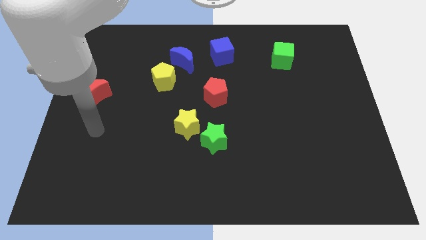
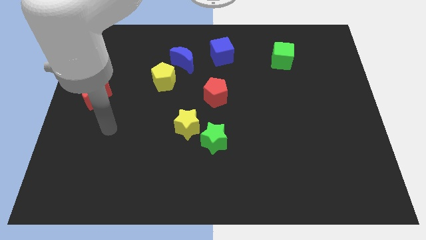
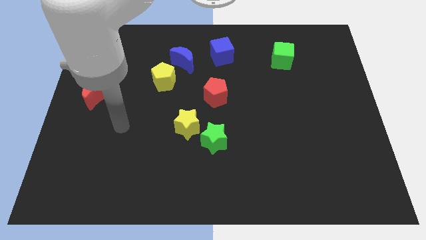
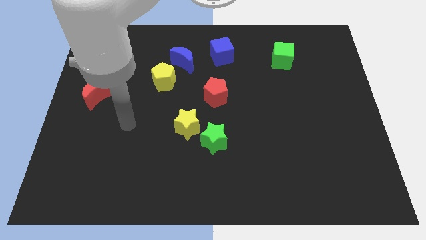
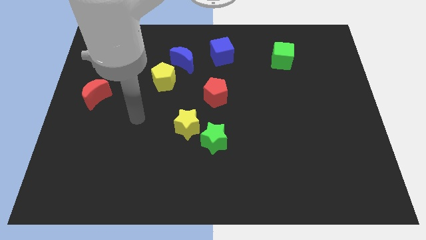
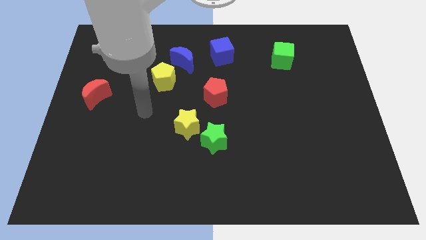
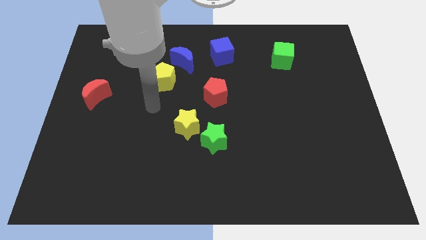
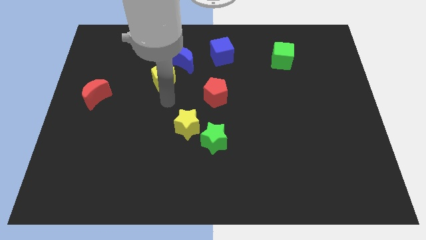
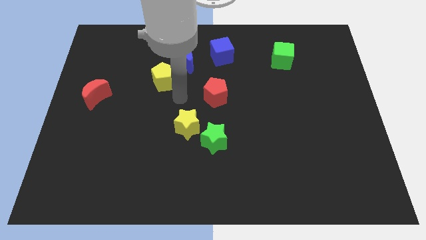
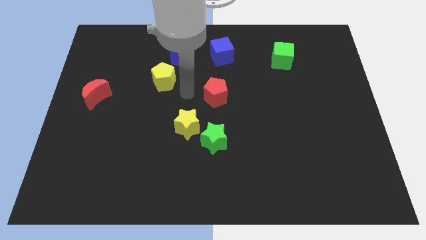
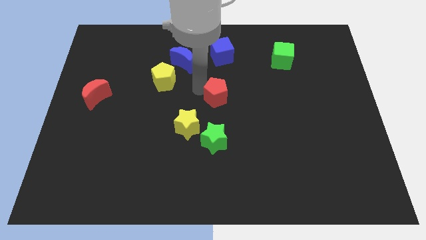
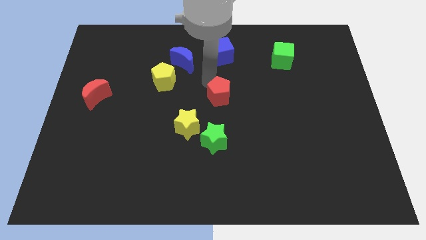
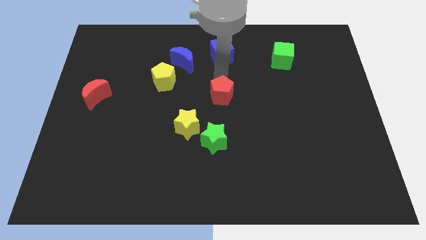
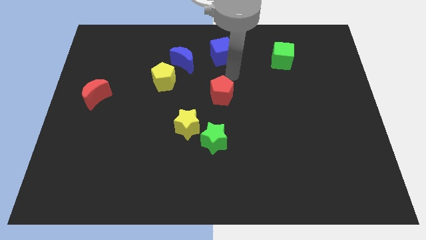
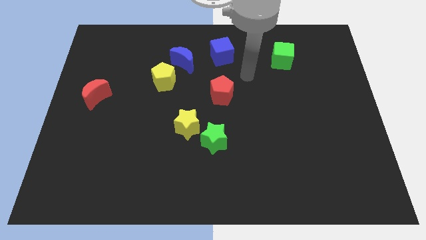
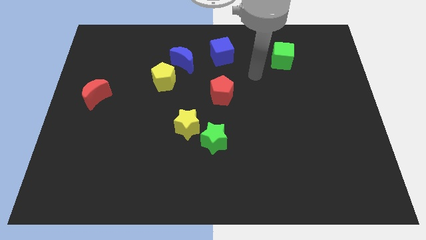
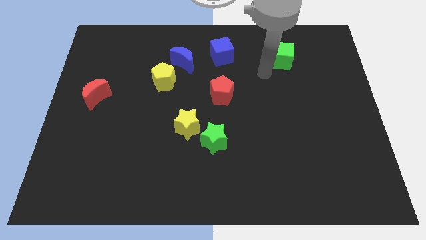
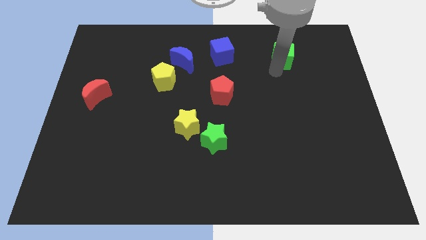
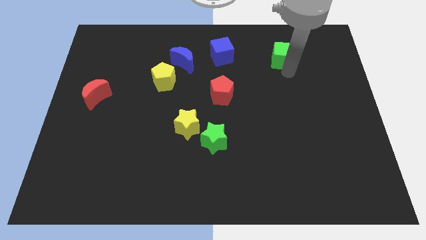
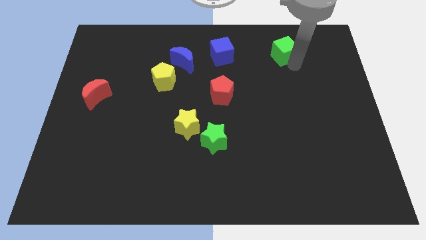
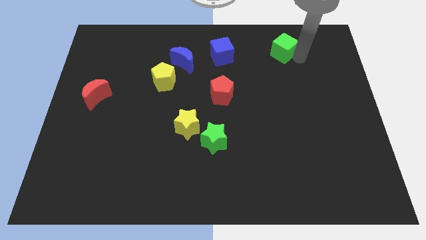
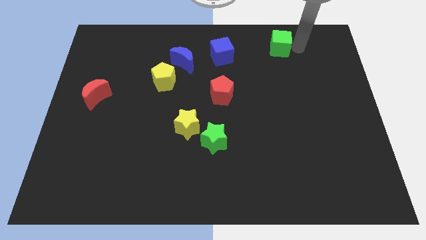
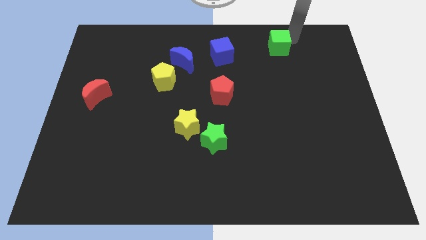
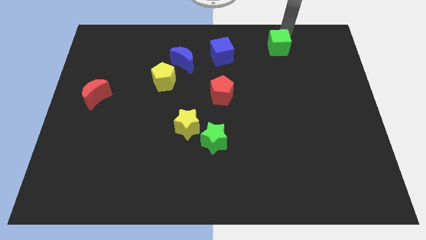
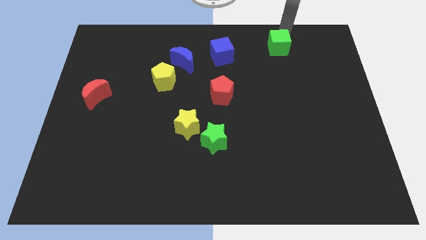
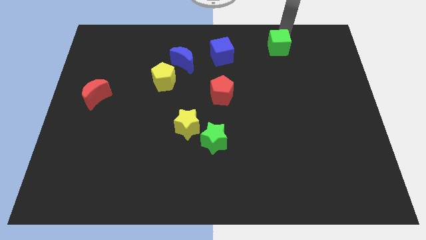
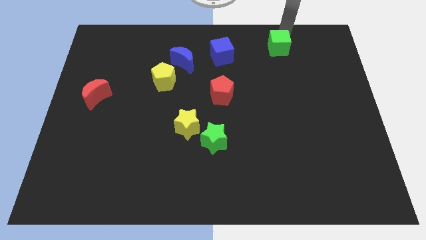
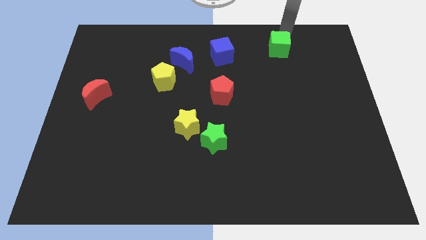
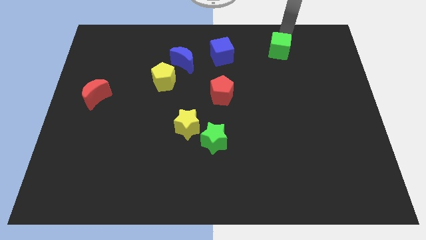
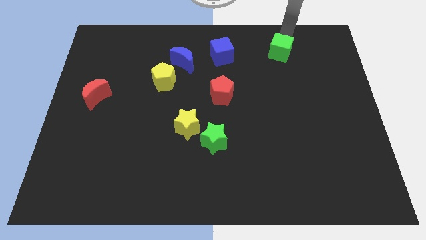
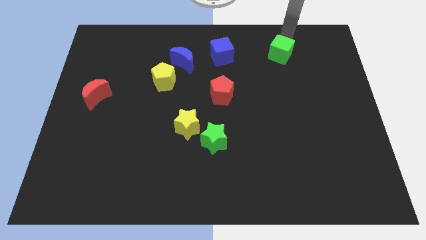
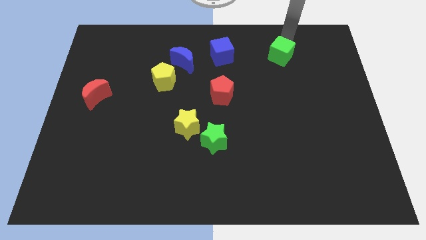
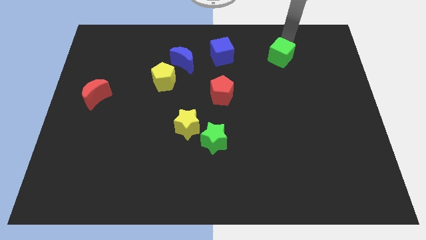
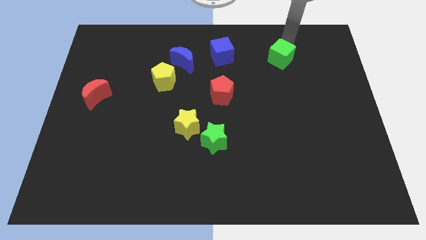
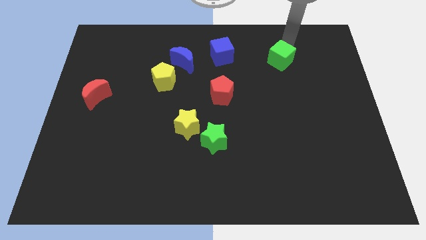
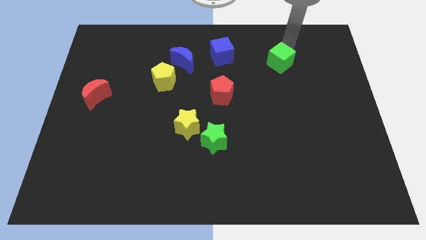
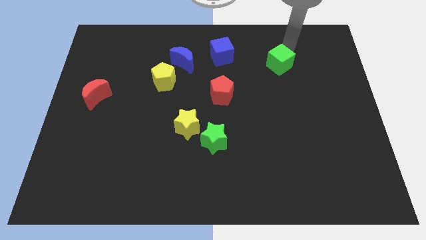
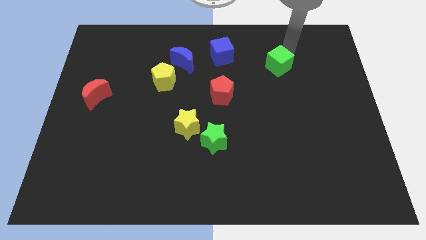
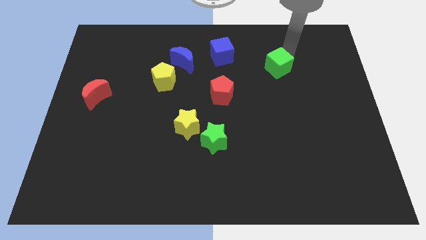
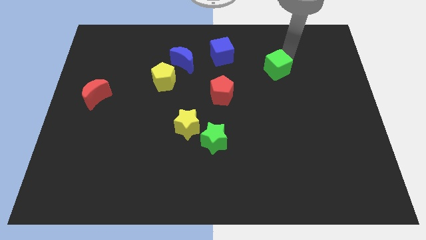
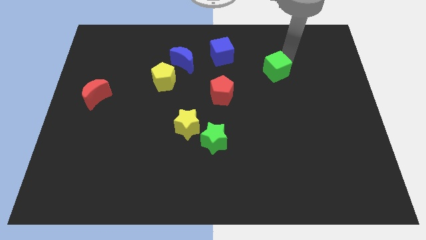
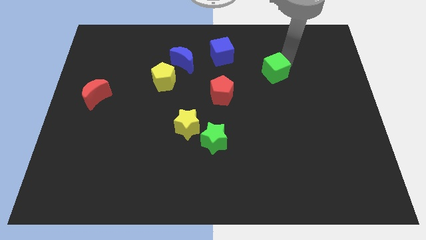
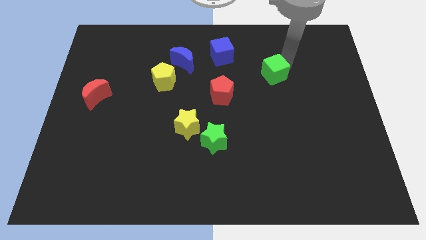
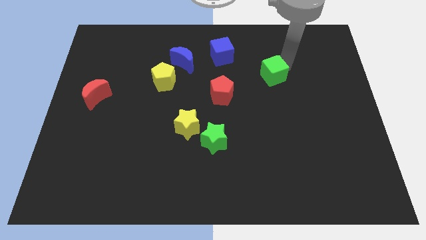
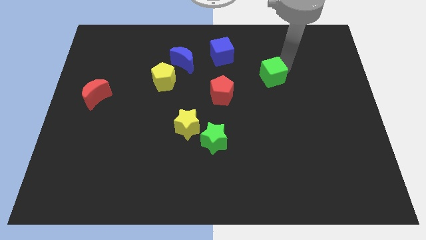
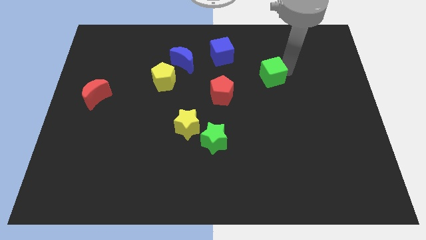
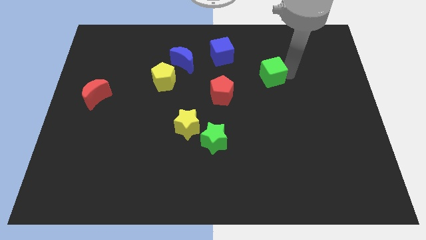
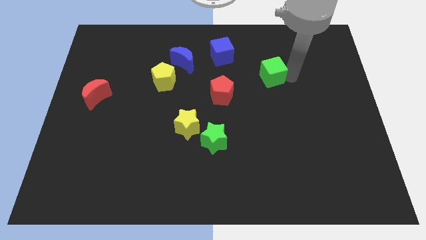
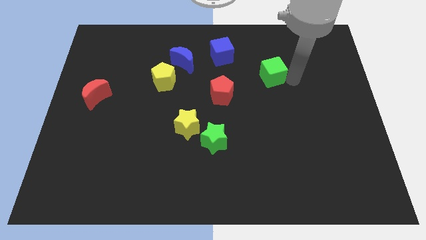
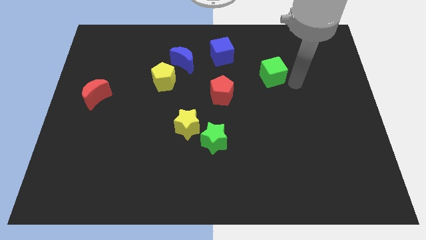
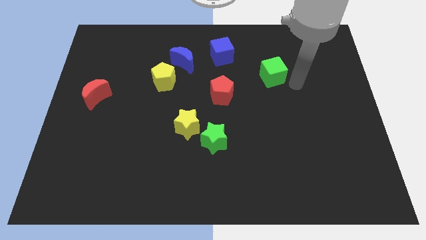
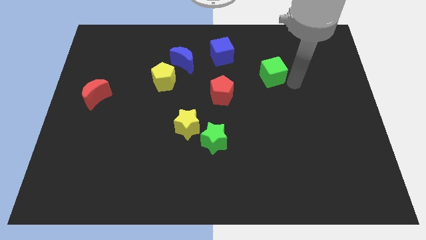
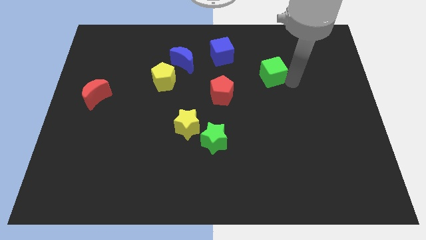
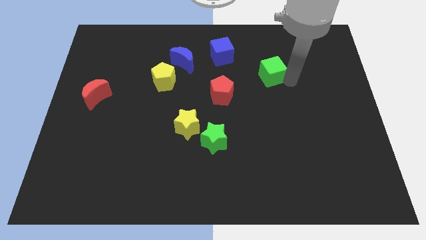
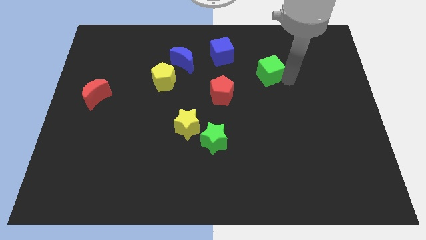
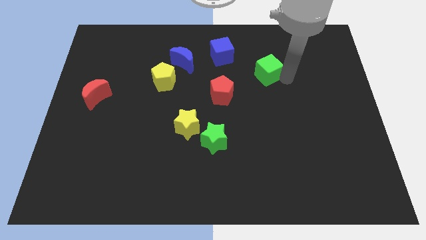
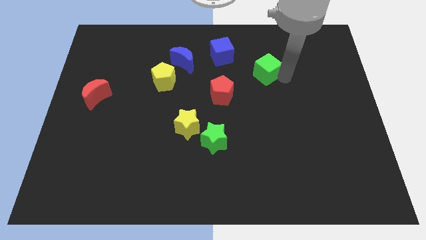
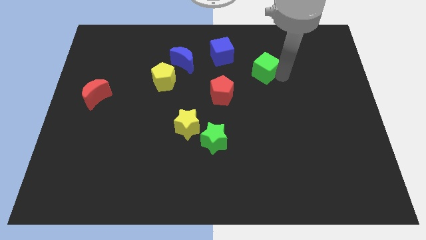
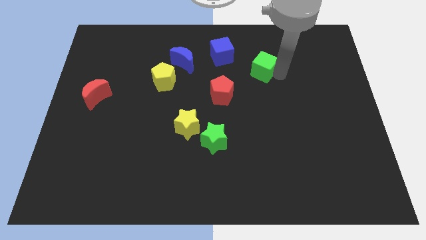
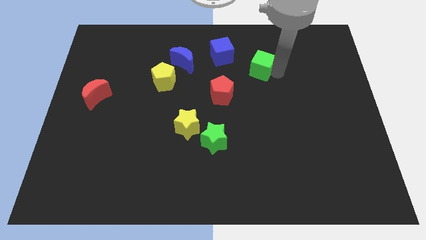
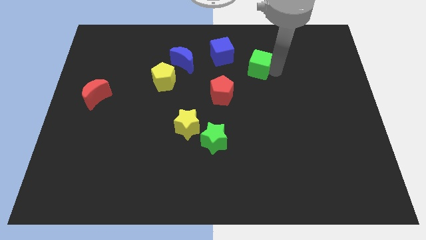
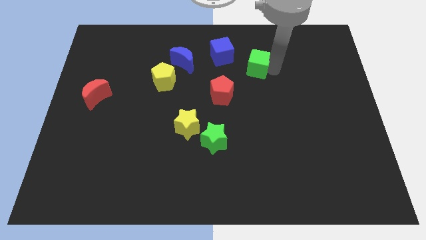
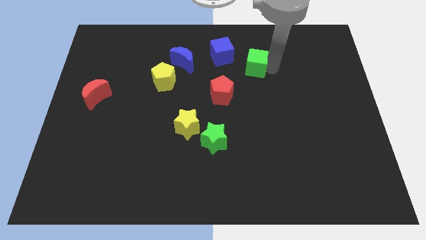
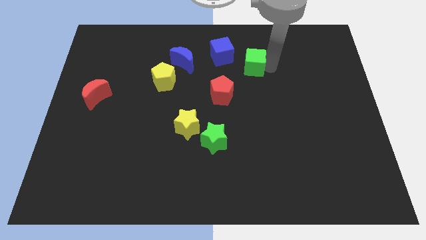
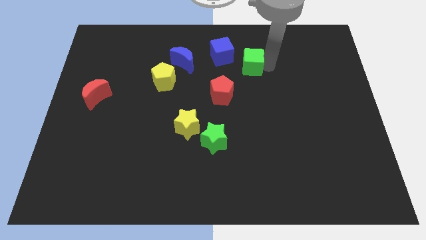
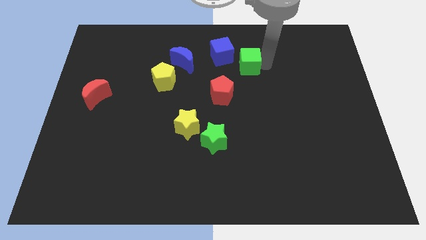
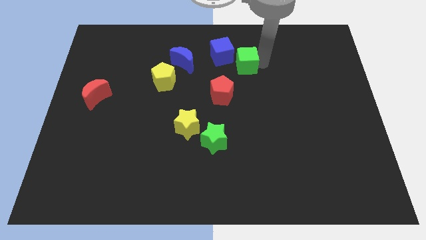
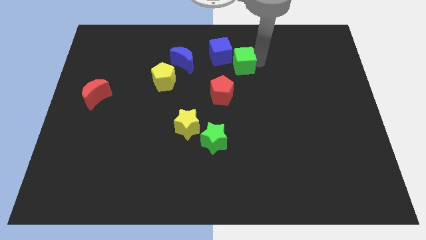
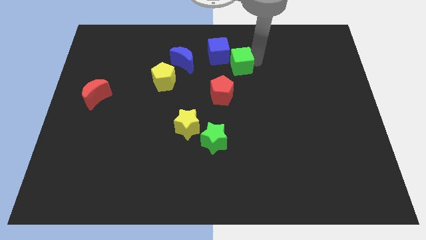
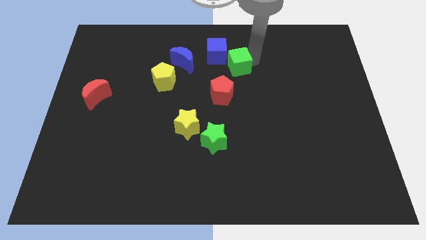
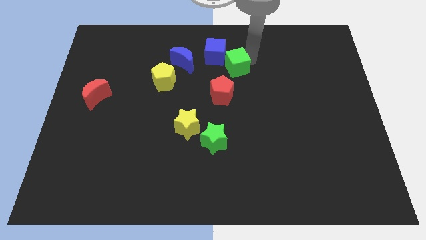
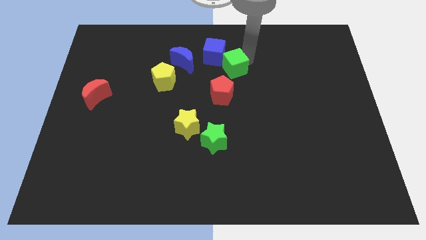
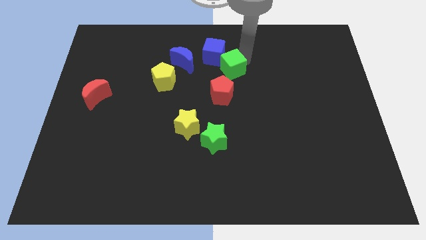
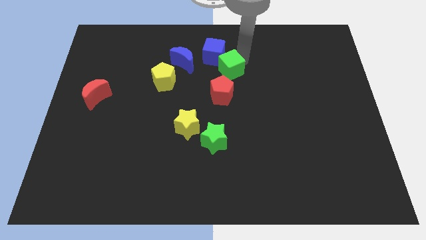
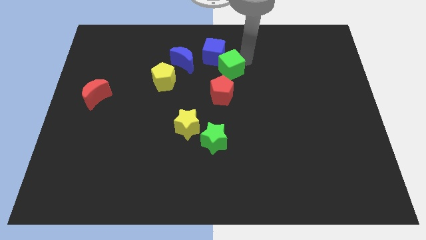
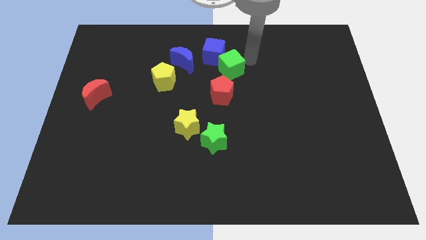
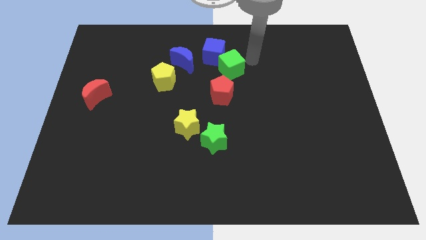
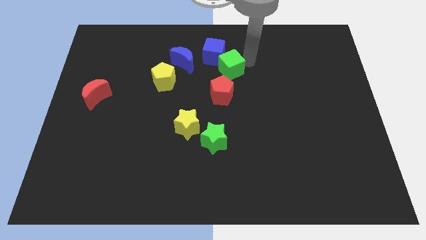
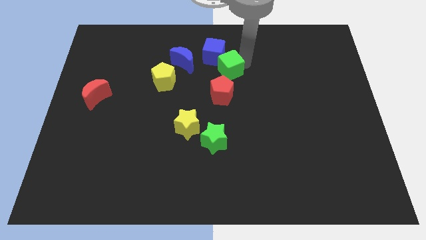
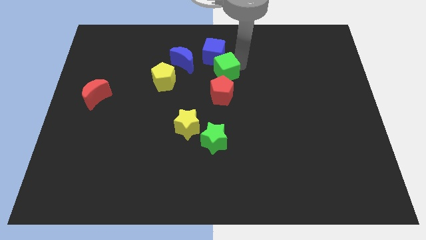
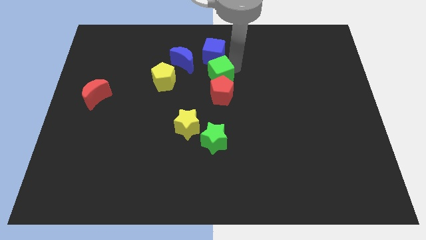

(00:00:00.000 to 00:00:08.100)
move the green cube to the bottom right of the blue moon

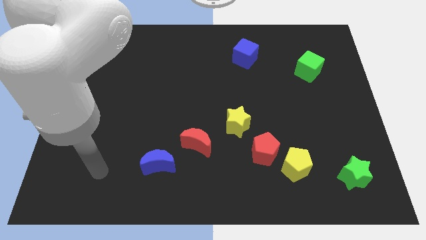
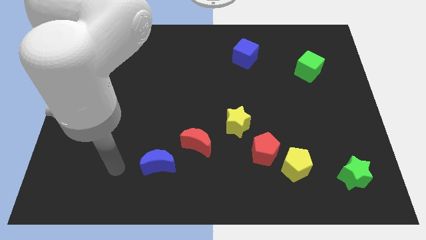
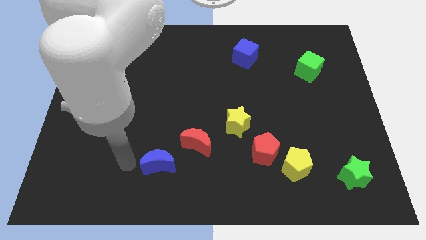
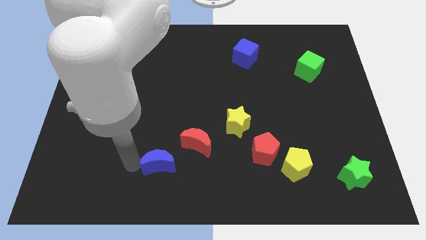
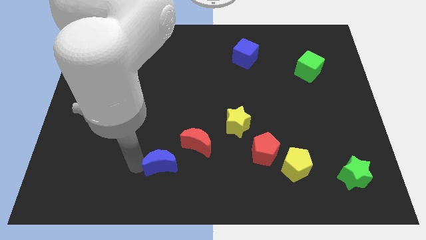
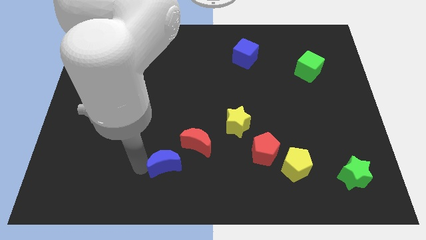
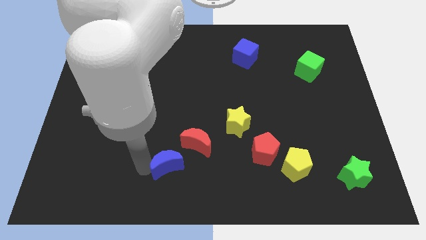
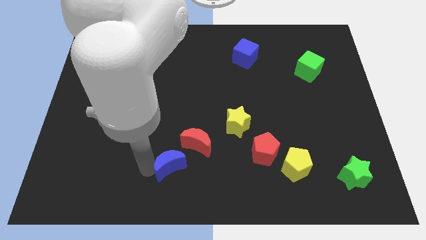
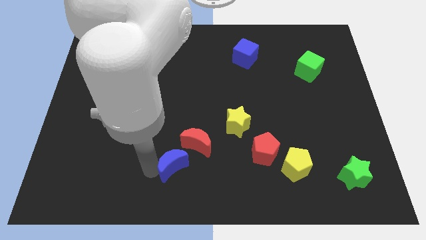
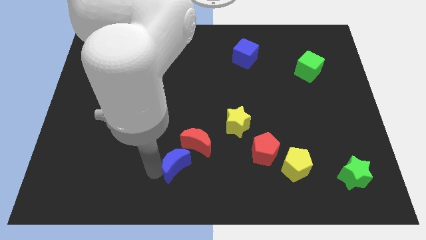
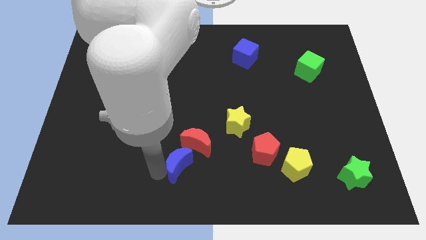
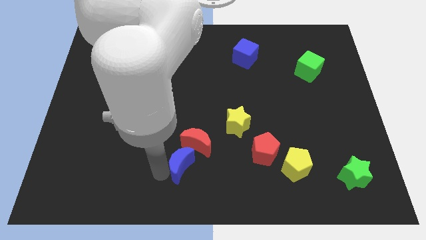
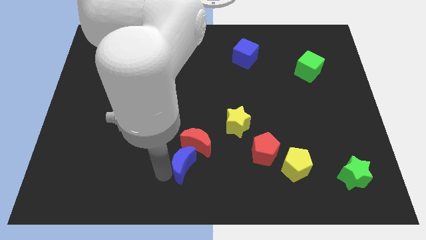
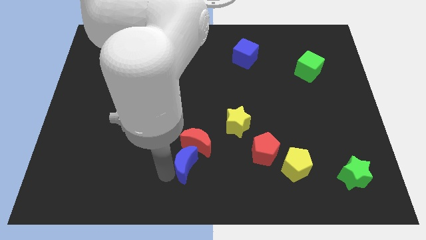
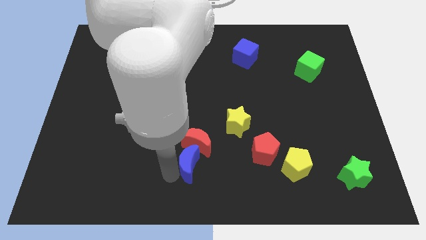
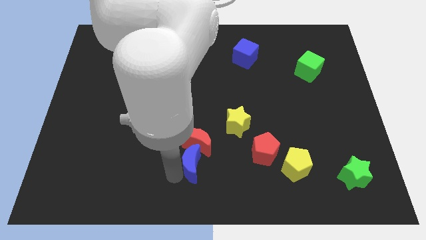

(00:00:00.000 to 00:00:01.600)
slide the blue moon diagonally down and to the right of the red moon
